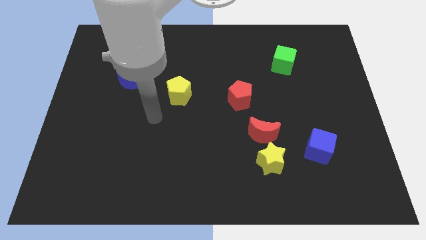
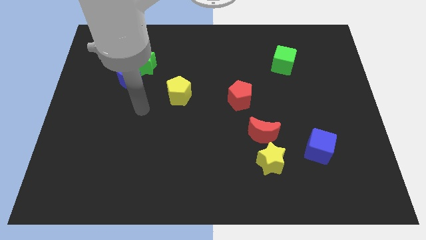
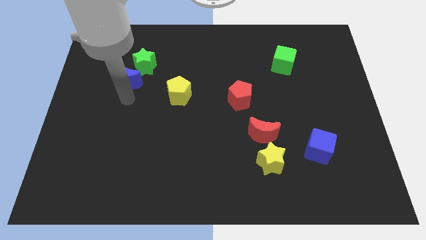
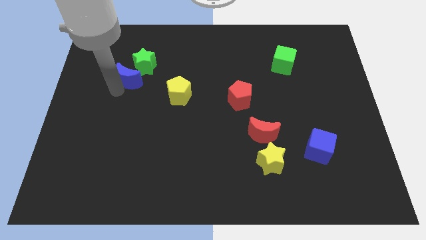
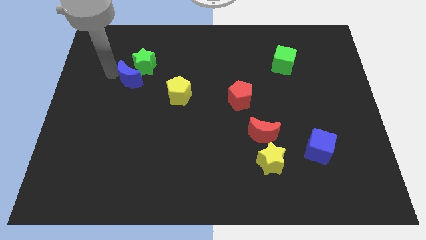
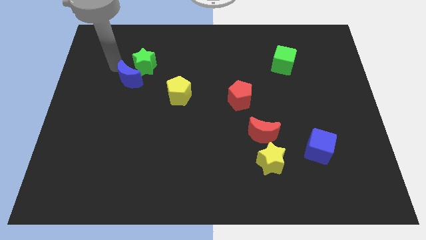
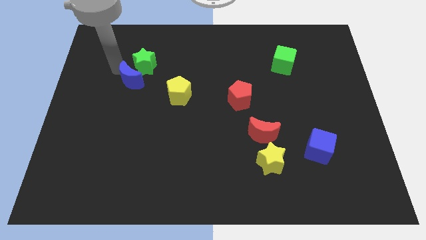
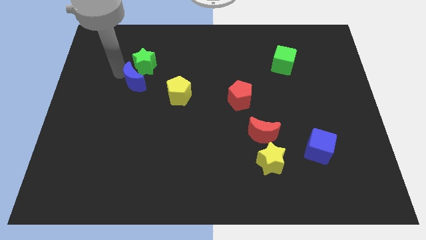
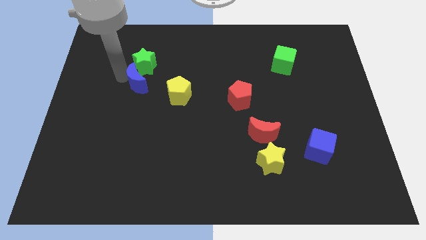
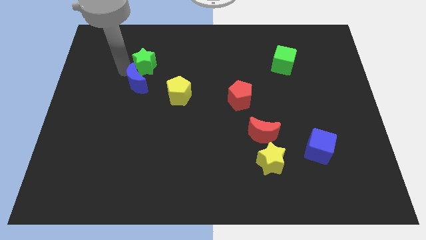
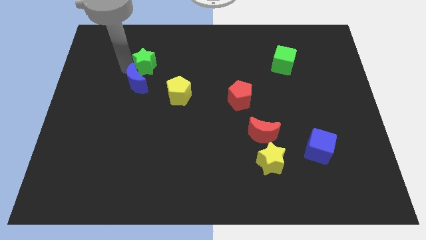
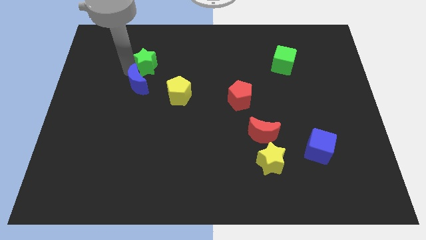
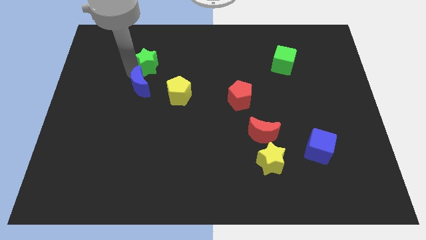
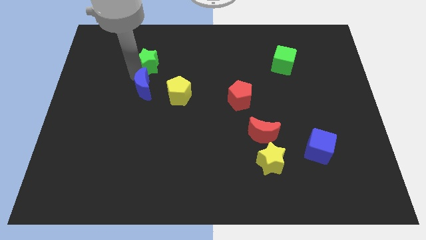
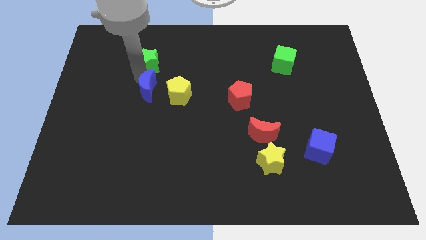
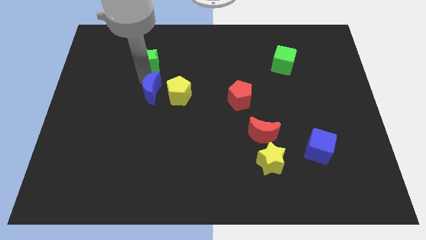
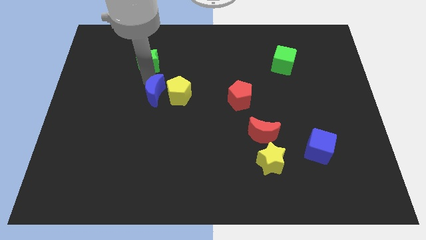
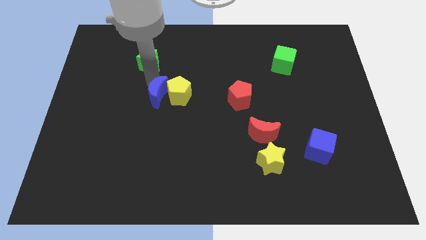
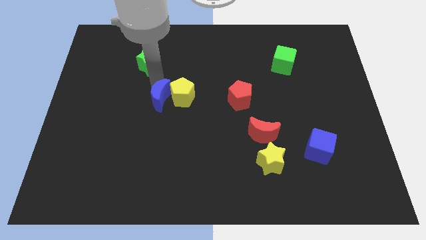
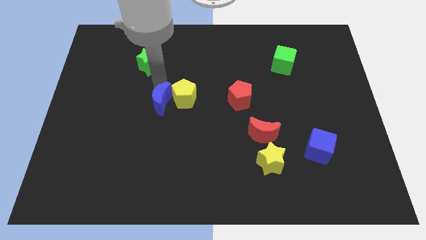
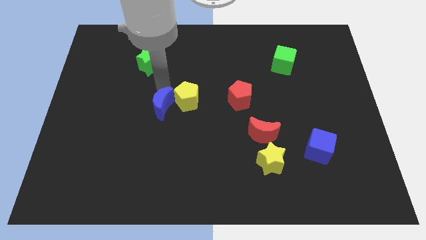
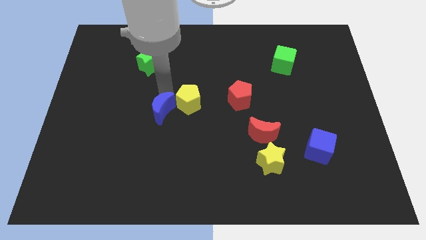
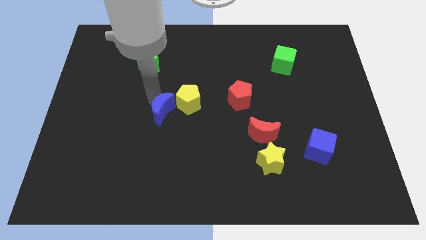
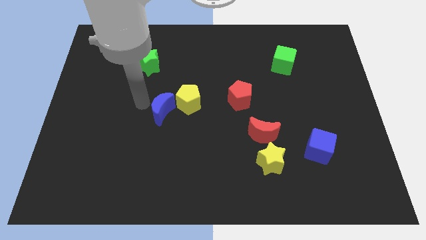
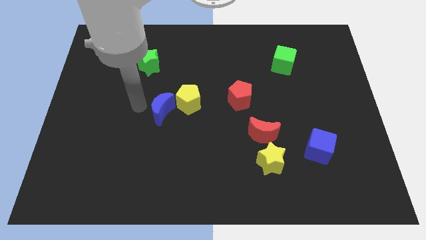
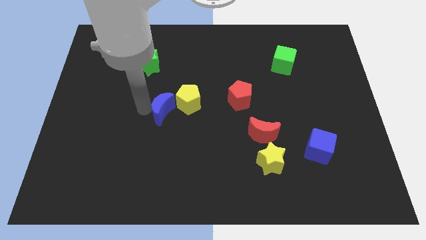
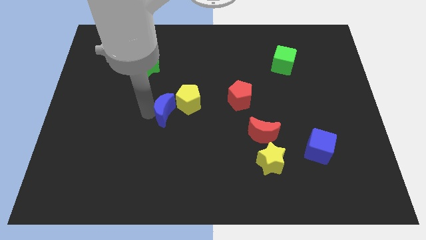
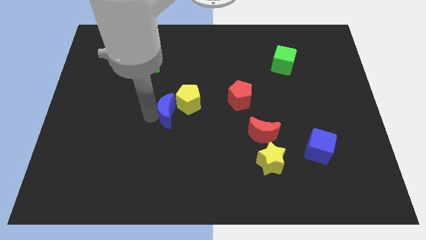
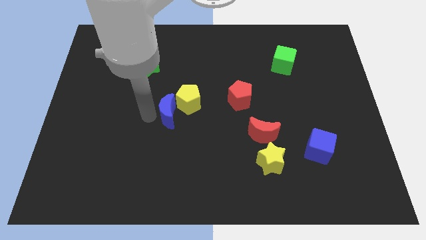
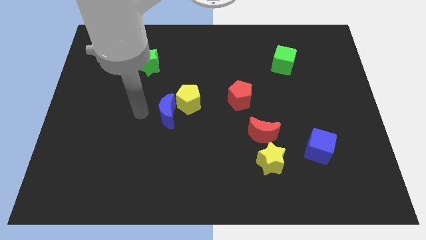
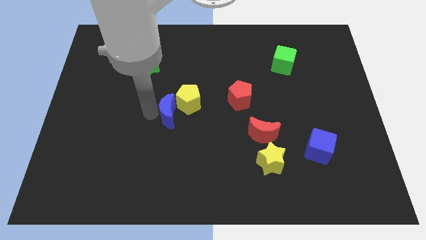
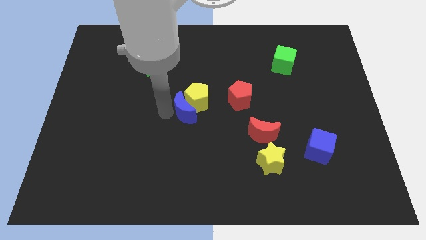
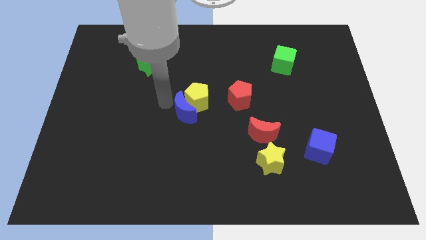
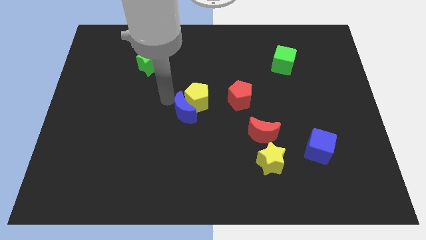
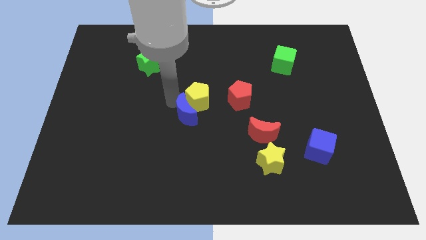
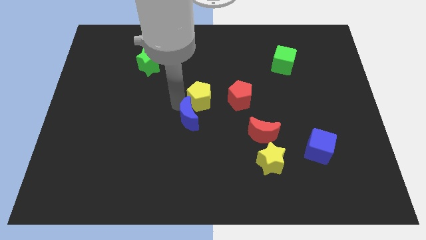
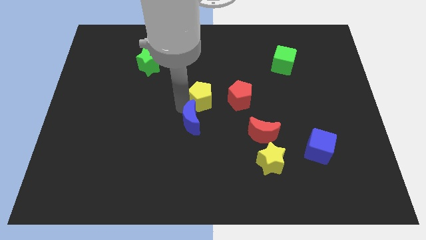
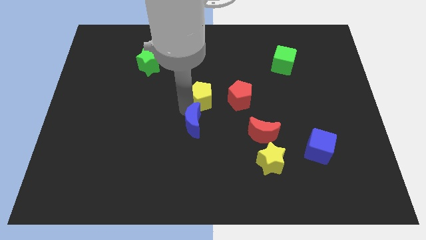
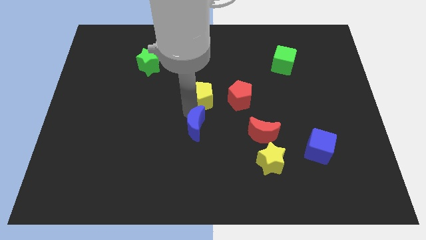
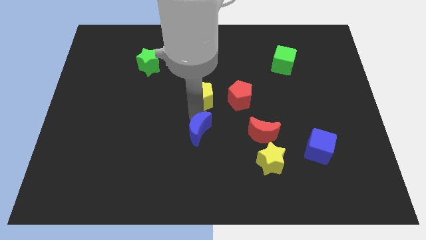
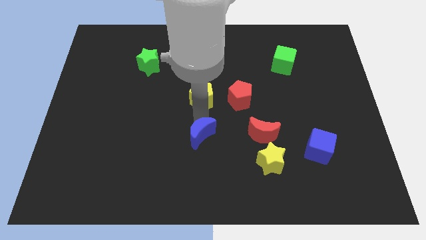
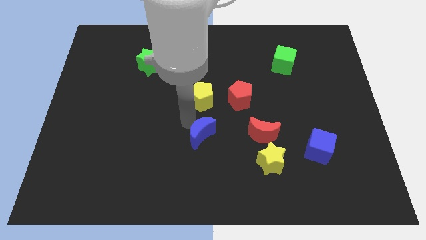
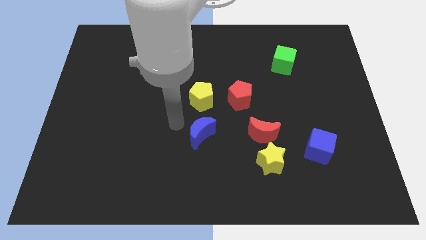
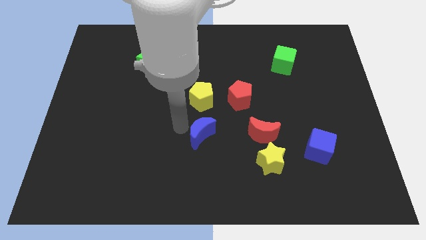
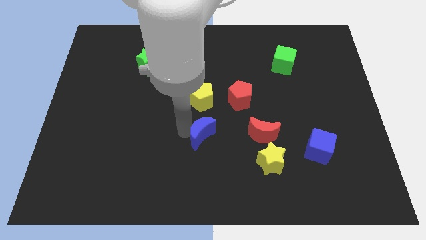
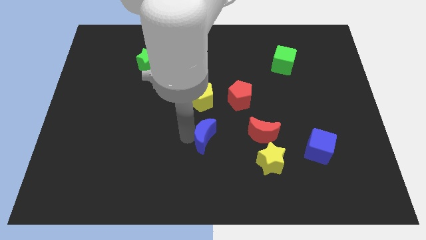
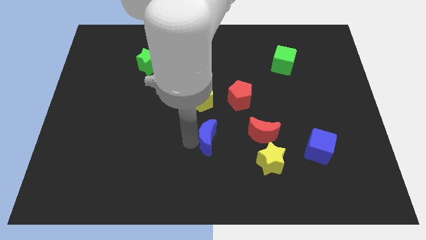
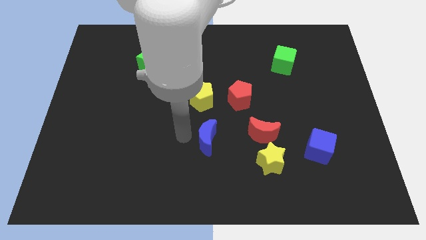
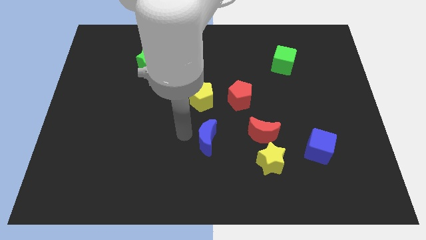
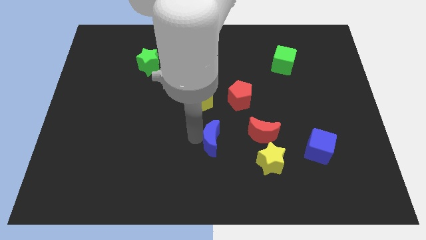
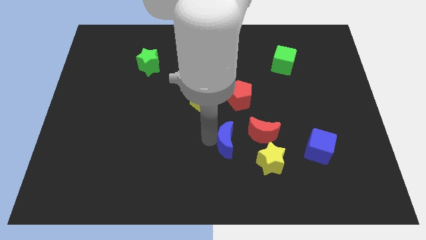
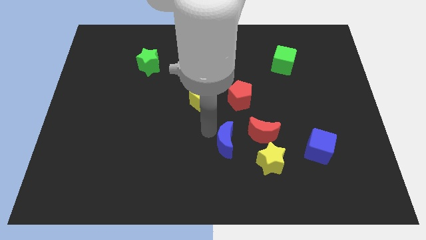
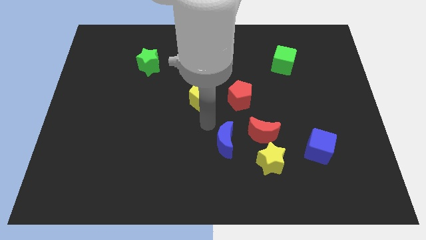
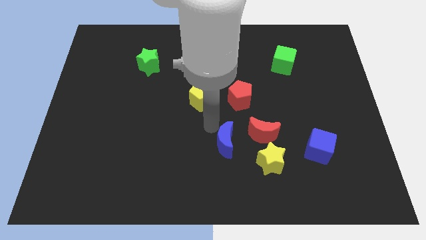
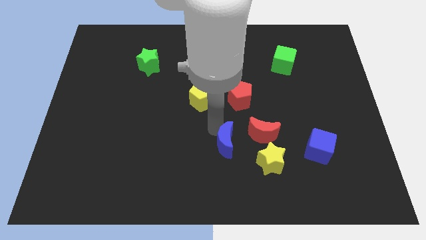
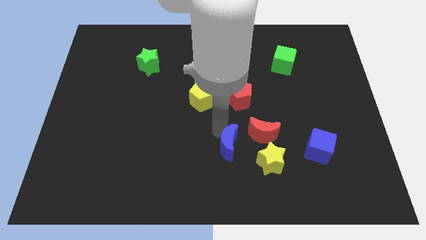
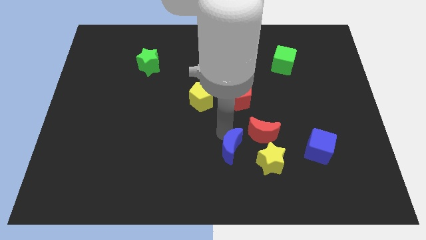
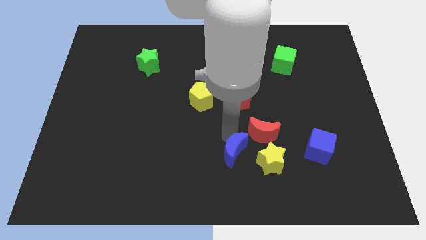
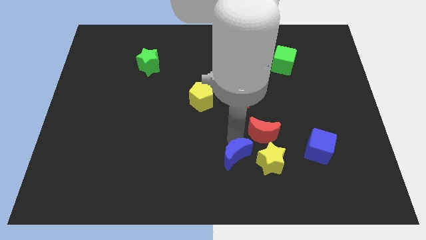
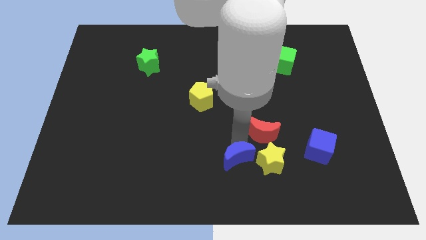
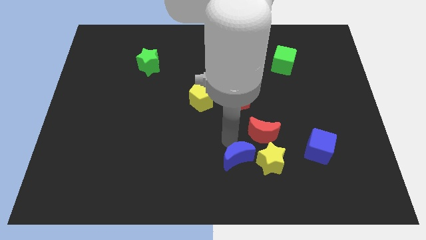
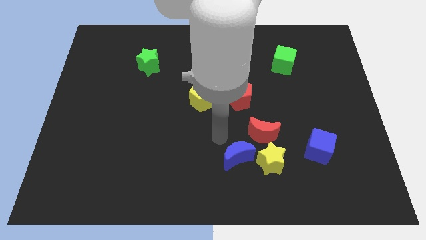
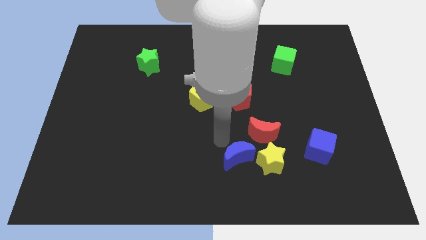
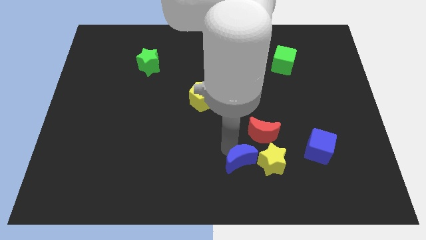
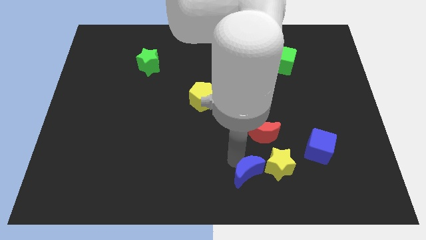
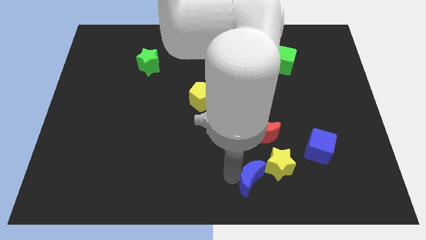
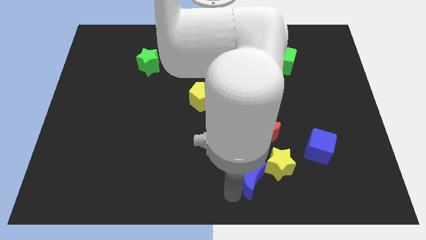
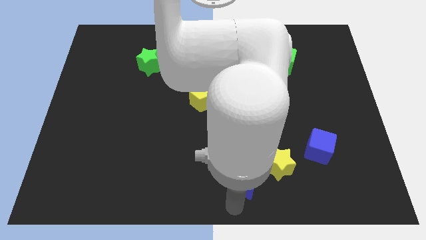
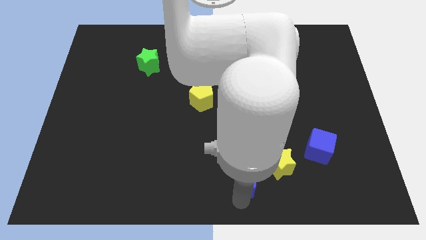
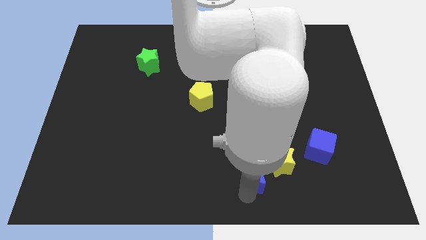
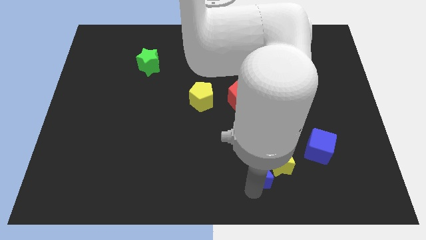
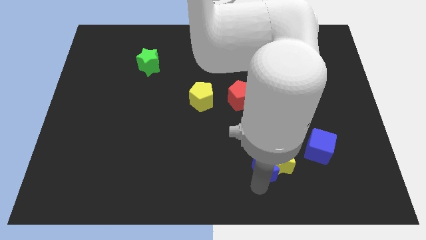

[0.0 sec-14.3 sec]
move the blue moon to the left of the blue cube
